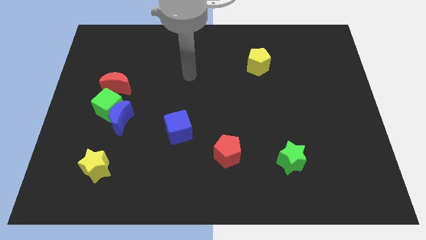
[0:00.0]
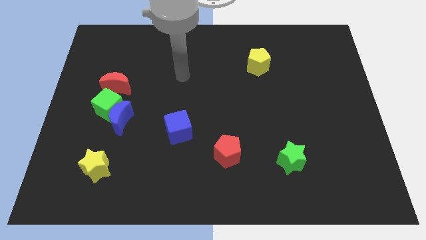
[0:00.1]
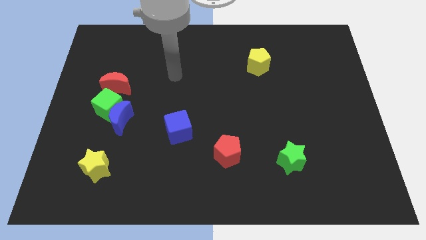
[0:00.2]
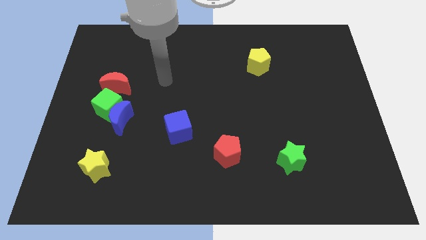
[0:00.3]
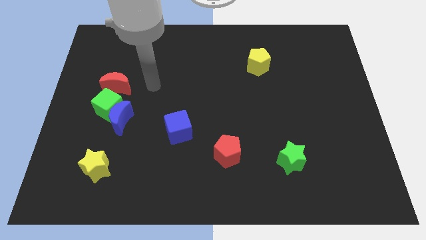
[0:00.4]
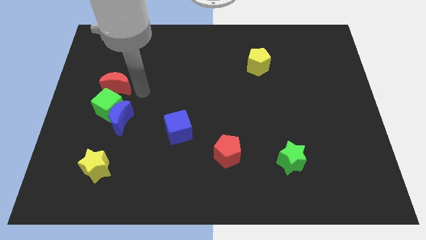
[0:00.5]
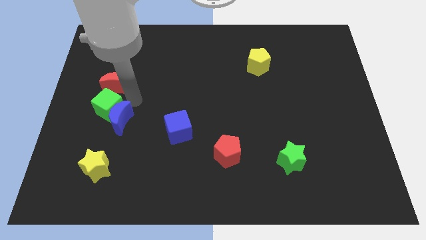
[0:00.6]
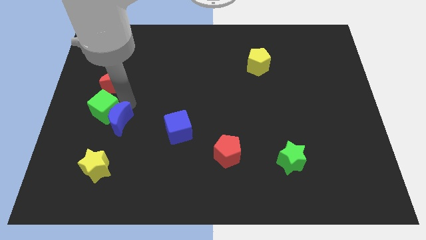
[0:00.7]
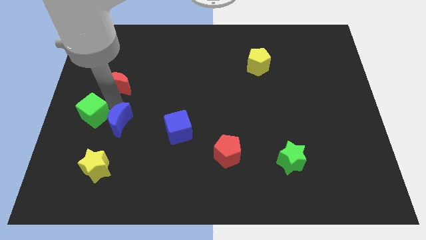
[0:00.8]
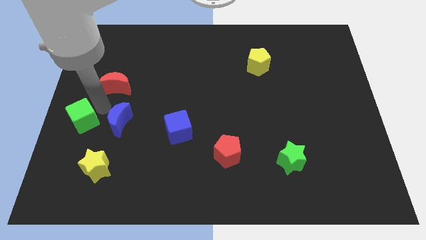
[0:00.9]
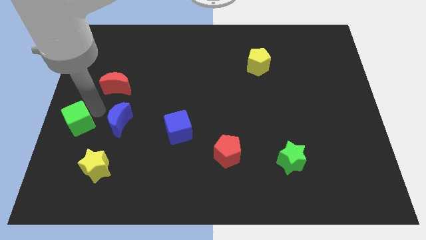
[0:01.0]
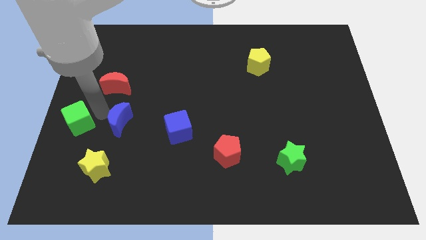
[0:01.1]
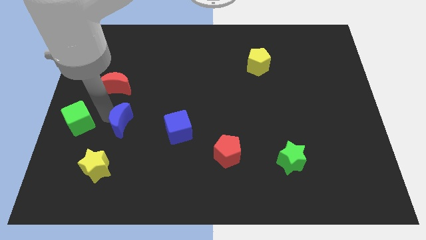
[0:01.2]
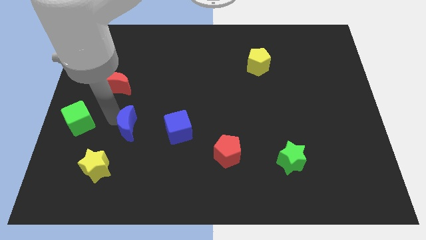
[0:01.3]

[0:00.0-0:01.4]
move the blue moon away from the green cube

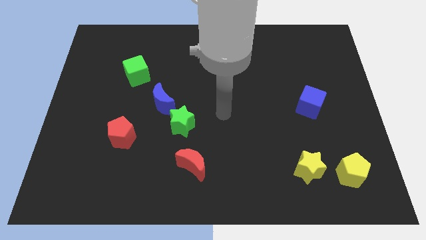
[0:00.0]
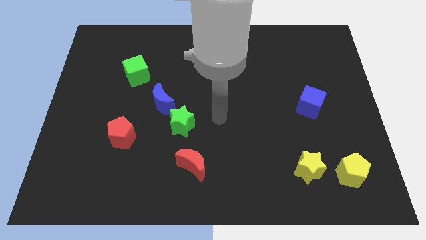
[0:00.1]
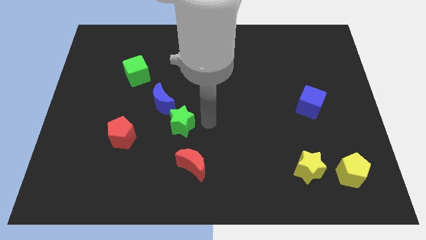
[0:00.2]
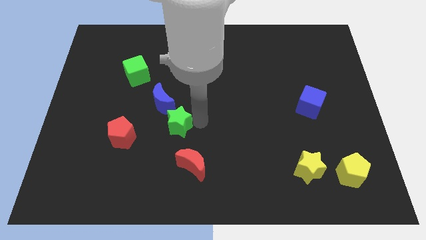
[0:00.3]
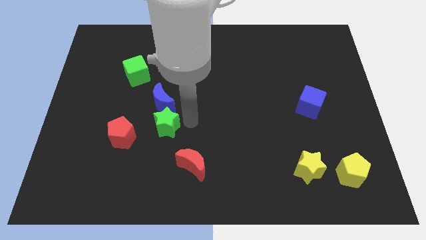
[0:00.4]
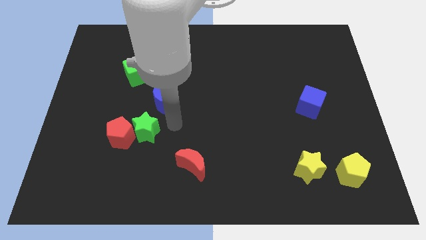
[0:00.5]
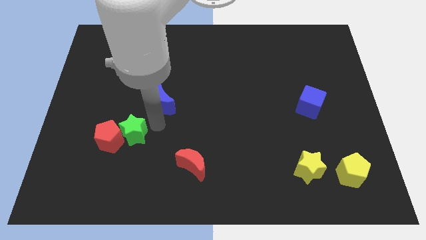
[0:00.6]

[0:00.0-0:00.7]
pull the blue moon apart from the green star

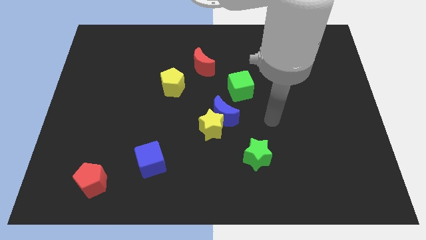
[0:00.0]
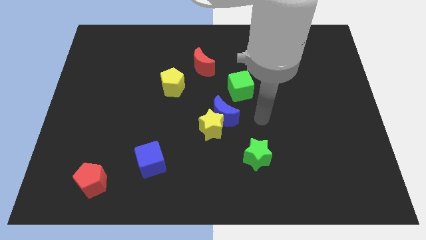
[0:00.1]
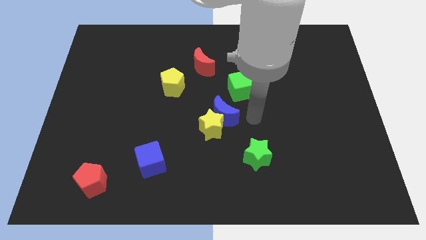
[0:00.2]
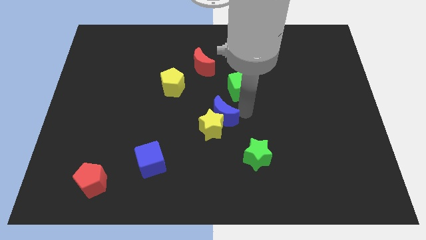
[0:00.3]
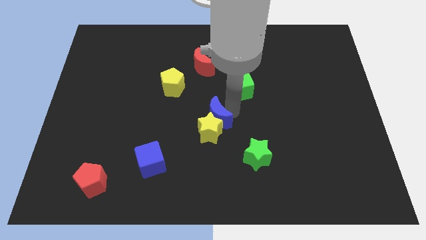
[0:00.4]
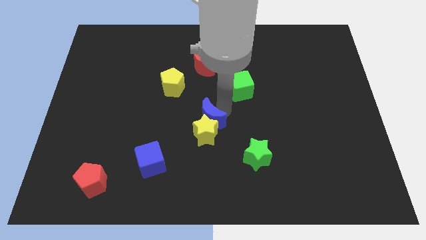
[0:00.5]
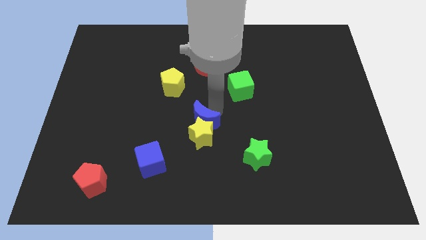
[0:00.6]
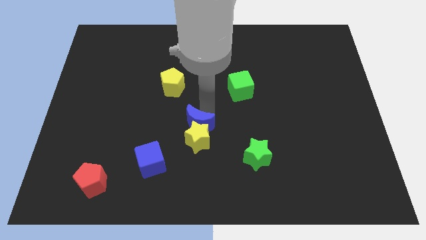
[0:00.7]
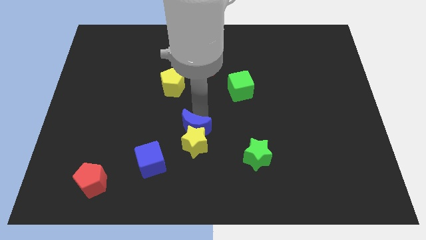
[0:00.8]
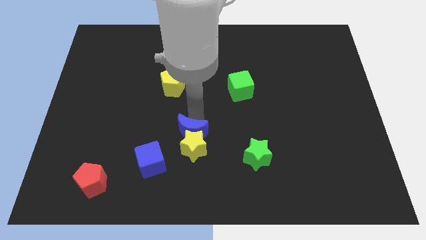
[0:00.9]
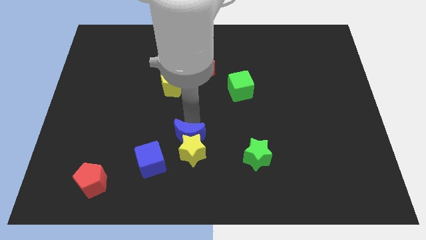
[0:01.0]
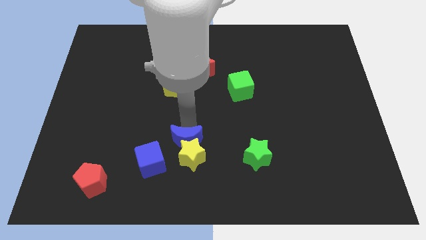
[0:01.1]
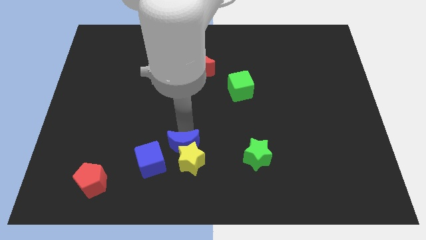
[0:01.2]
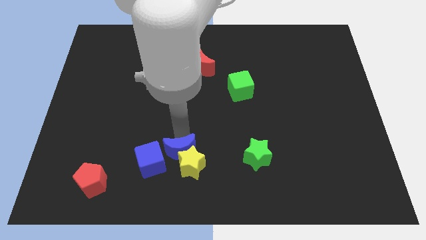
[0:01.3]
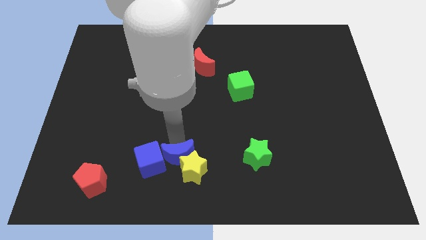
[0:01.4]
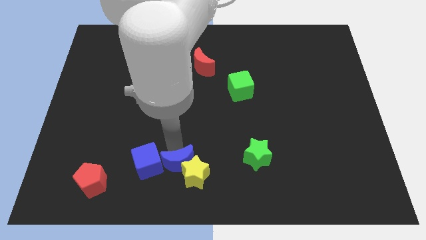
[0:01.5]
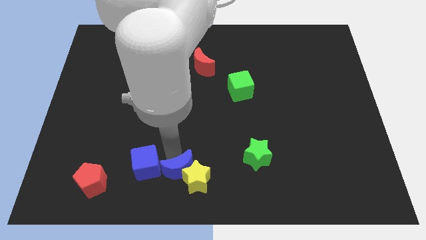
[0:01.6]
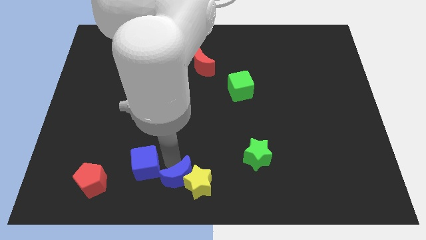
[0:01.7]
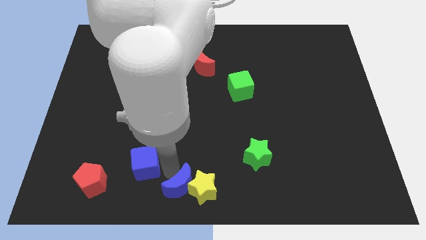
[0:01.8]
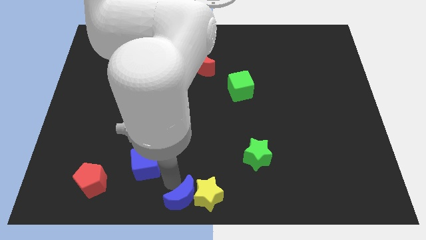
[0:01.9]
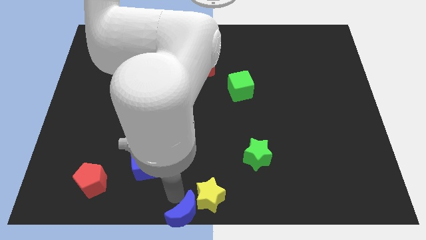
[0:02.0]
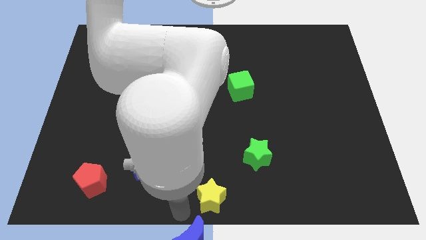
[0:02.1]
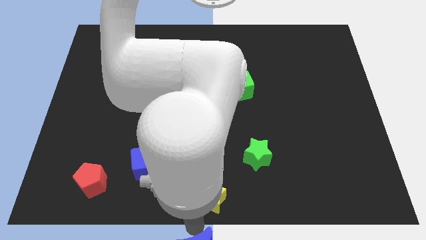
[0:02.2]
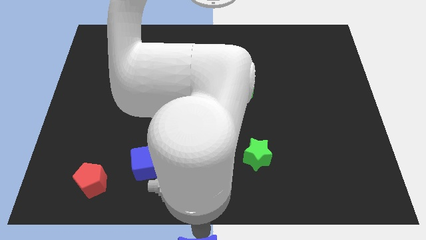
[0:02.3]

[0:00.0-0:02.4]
pull the yellow star apart from the blue moon

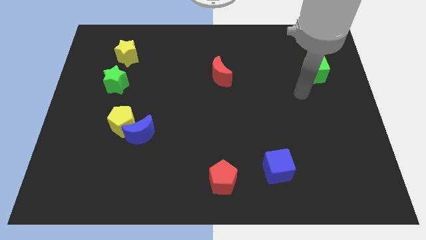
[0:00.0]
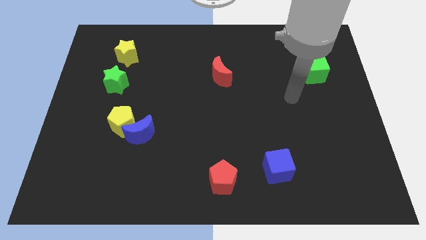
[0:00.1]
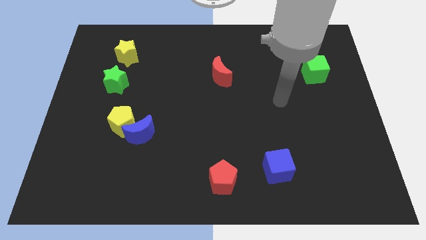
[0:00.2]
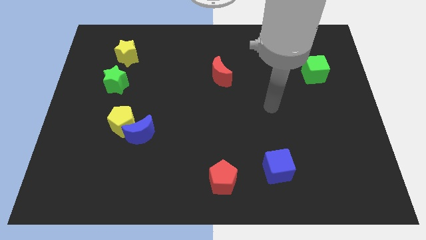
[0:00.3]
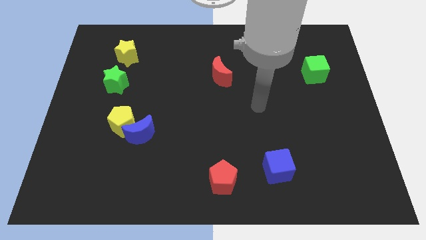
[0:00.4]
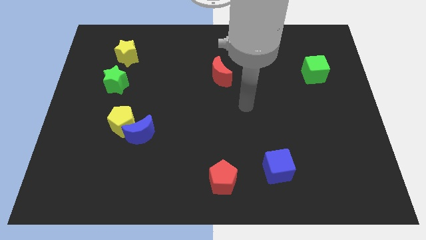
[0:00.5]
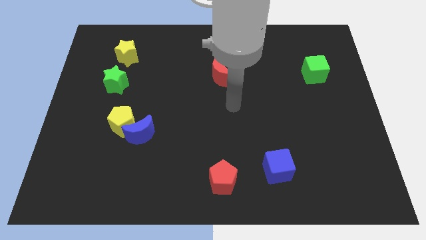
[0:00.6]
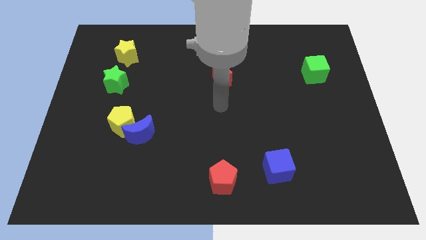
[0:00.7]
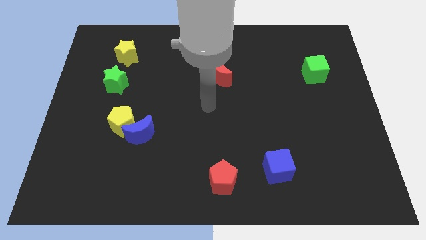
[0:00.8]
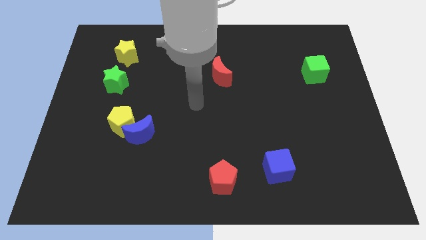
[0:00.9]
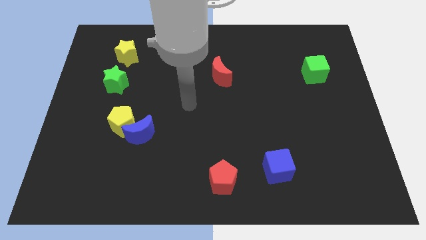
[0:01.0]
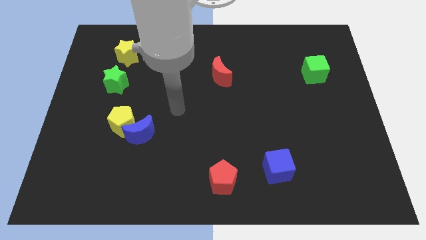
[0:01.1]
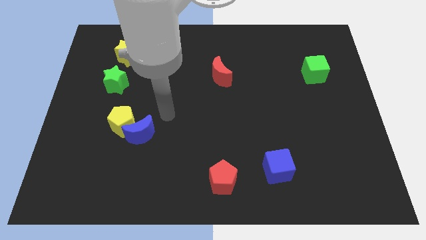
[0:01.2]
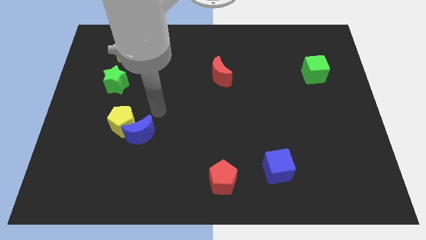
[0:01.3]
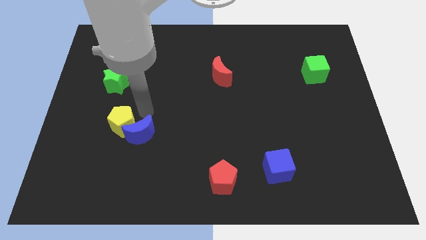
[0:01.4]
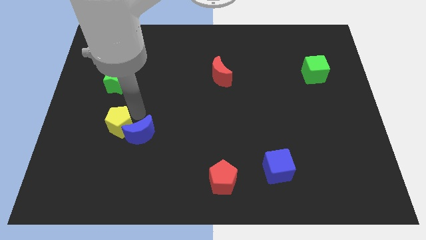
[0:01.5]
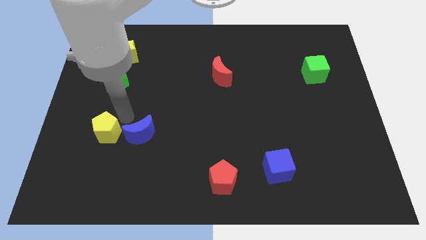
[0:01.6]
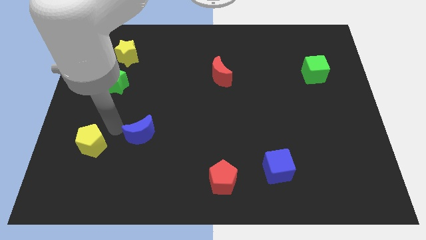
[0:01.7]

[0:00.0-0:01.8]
separate the blue moon from the yellow pentagon

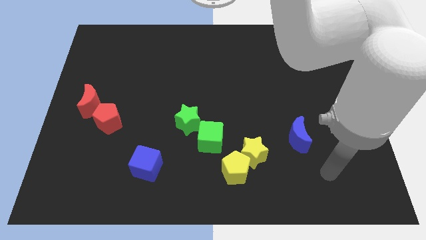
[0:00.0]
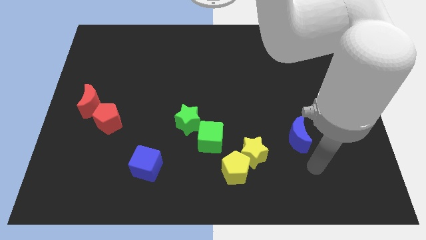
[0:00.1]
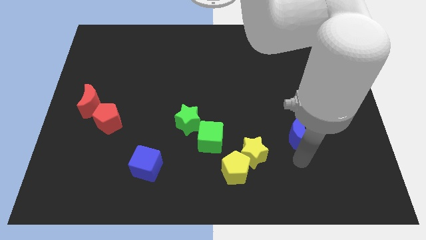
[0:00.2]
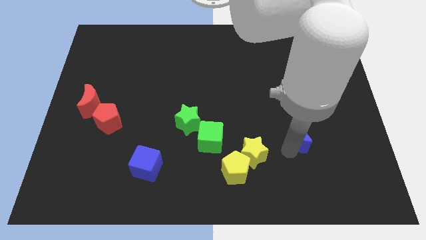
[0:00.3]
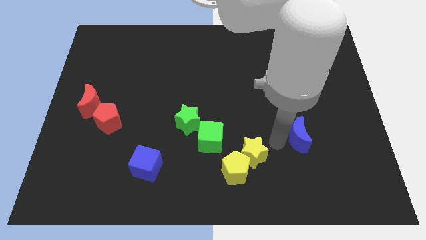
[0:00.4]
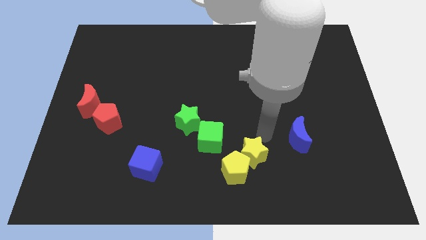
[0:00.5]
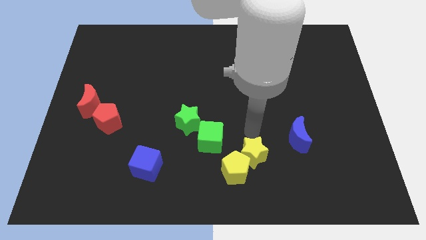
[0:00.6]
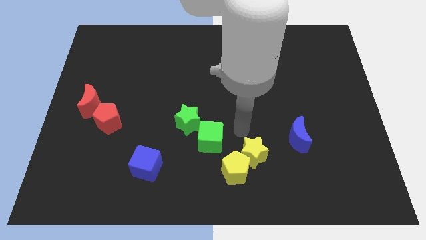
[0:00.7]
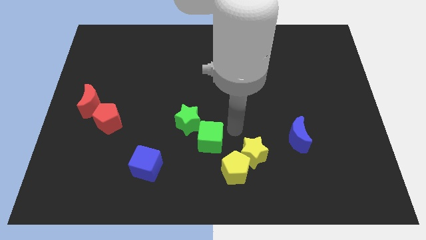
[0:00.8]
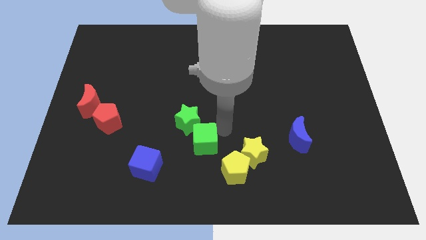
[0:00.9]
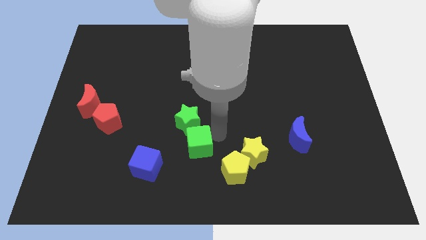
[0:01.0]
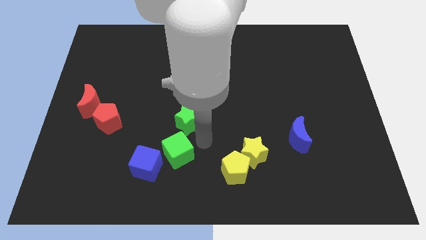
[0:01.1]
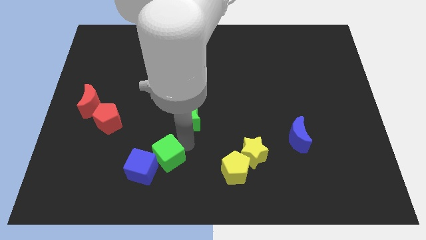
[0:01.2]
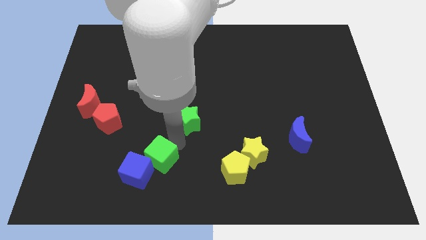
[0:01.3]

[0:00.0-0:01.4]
separate the green star from the green cube

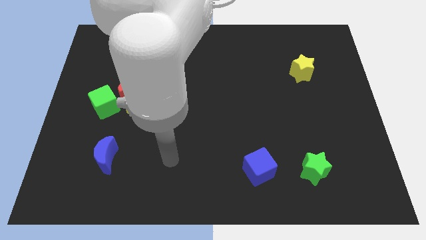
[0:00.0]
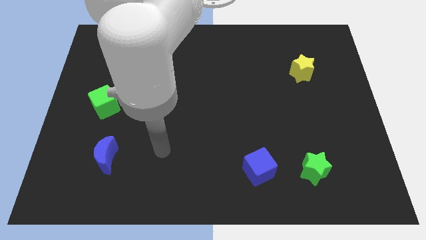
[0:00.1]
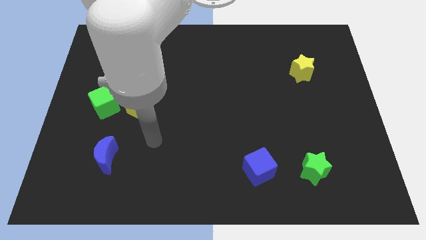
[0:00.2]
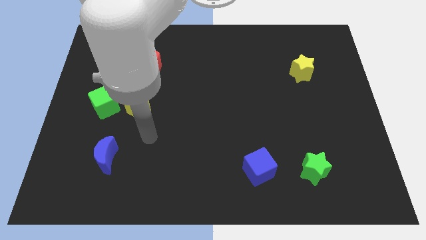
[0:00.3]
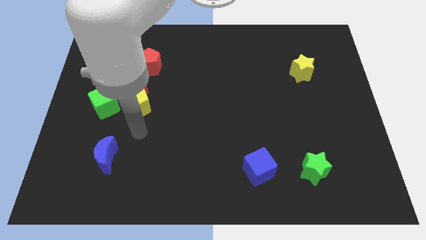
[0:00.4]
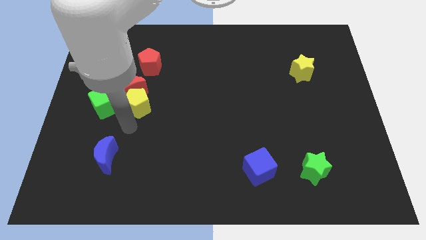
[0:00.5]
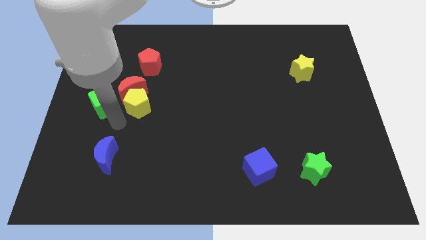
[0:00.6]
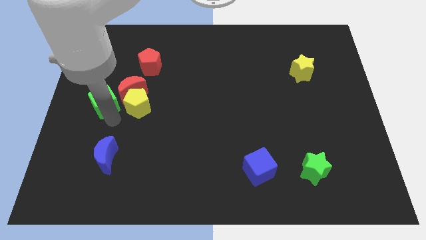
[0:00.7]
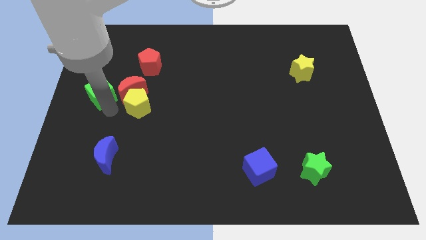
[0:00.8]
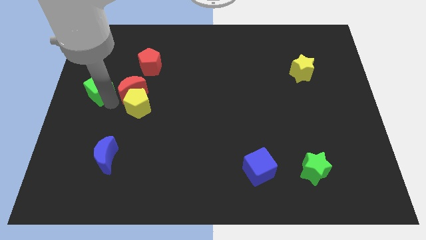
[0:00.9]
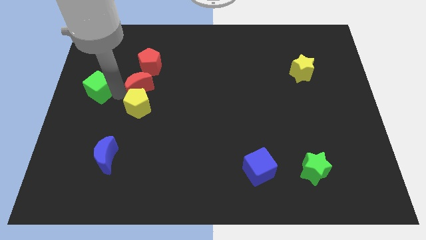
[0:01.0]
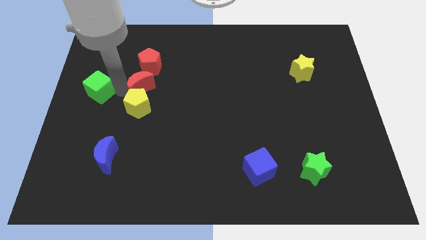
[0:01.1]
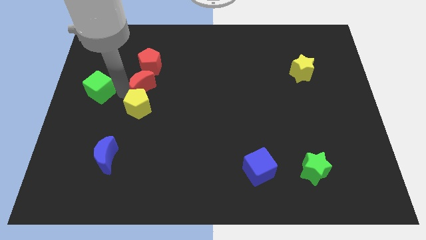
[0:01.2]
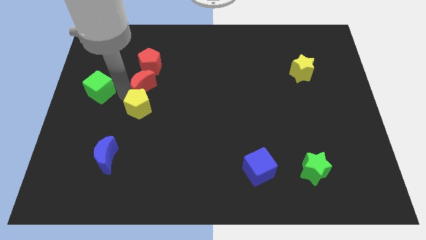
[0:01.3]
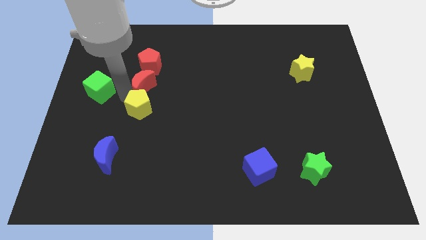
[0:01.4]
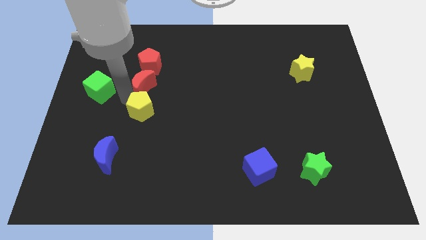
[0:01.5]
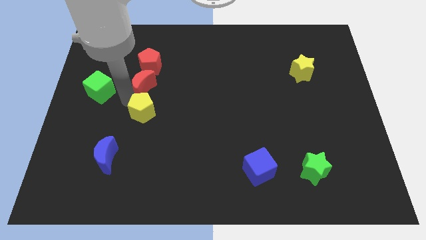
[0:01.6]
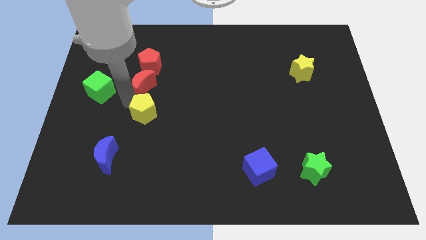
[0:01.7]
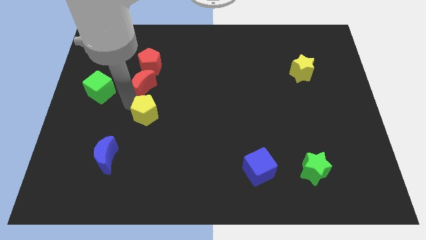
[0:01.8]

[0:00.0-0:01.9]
pull the yellow pentagon apart from the red moon and green cube
